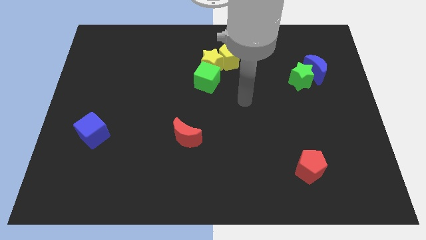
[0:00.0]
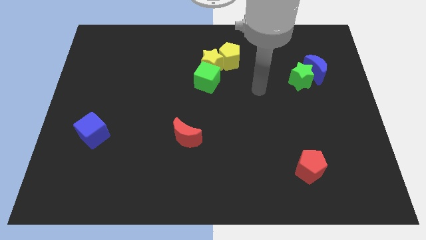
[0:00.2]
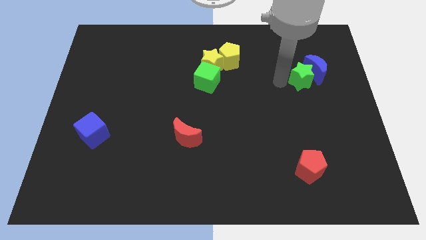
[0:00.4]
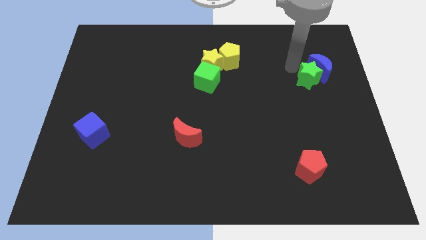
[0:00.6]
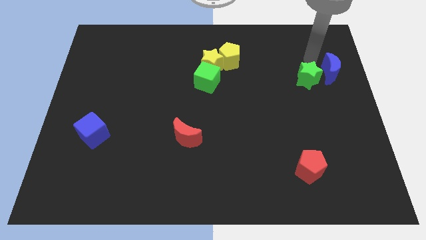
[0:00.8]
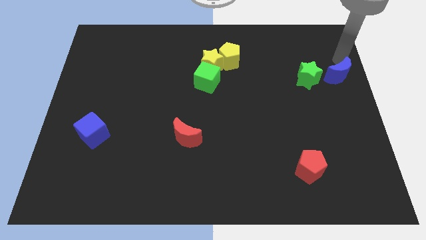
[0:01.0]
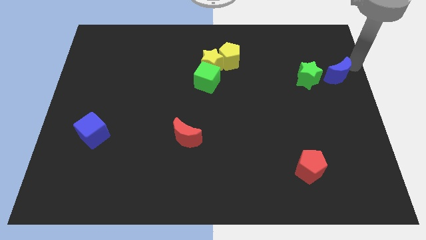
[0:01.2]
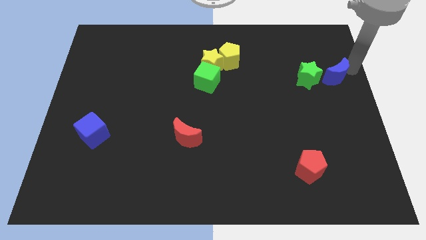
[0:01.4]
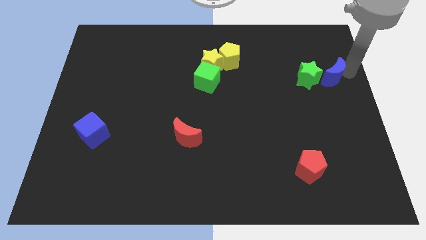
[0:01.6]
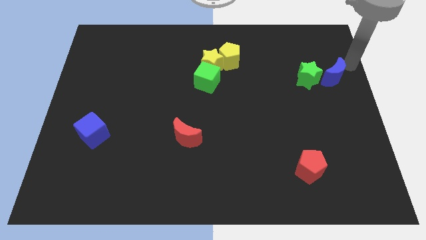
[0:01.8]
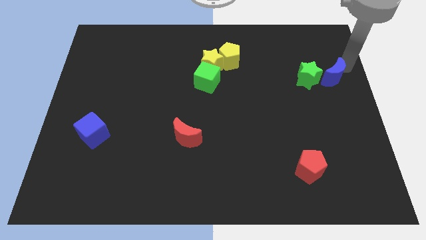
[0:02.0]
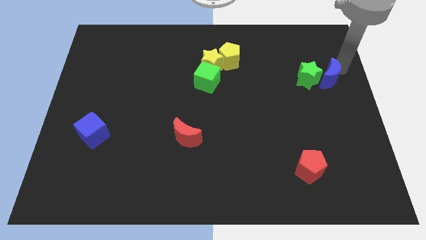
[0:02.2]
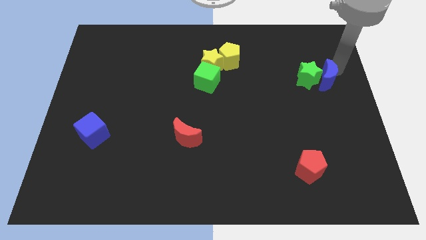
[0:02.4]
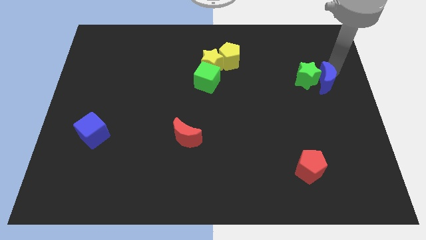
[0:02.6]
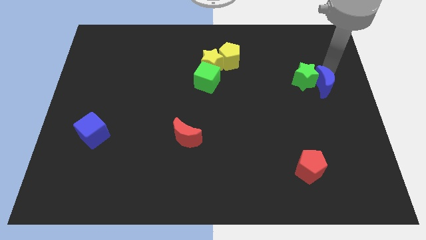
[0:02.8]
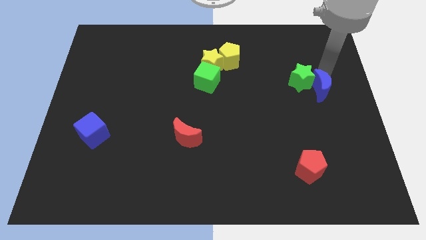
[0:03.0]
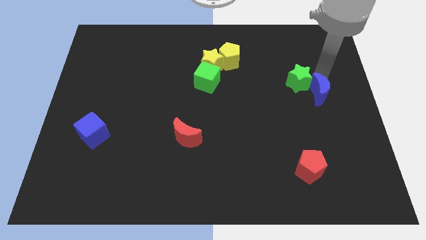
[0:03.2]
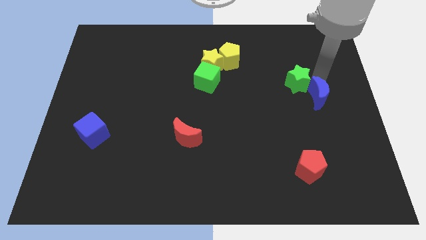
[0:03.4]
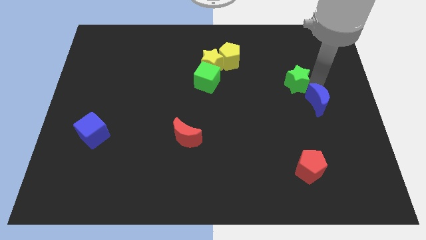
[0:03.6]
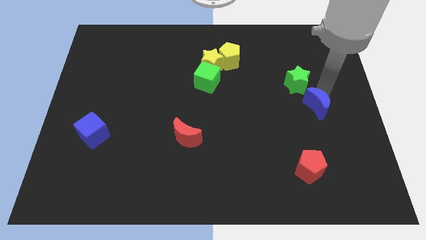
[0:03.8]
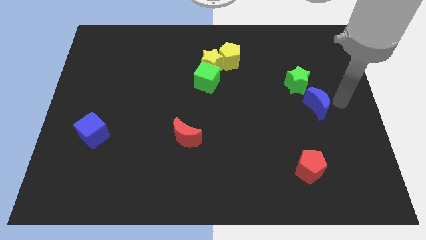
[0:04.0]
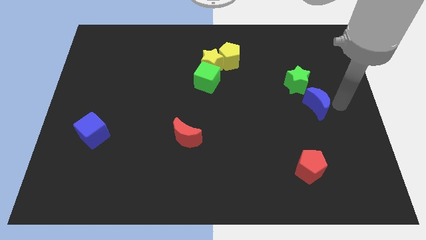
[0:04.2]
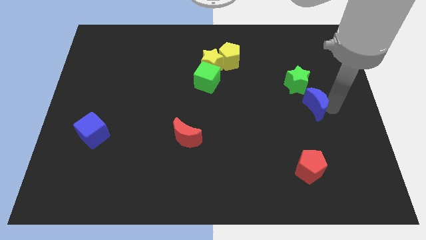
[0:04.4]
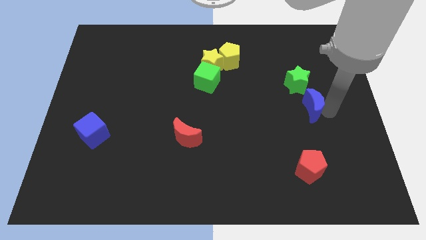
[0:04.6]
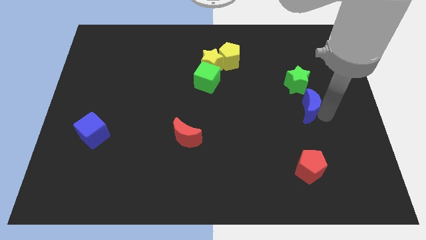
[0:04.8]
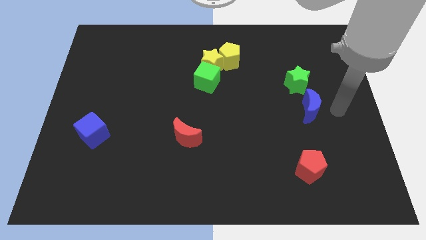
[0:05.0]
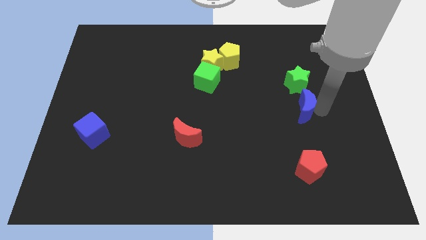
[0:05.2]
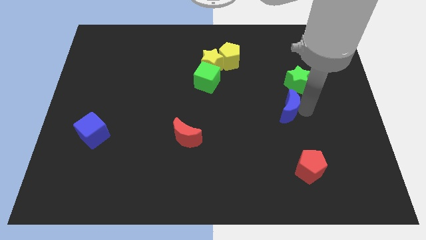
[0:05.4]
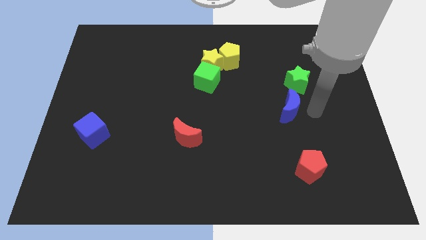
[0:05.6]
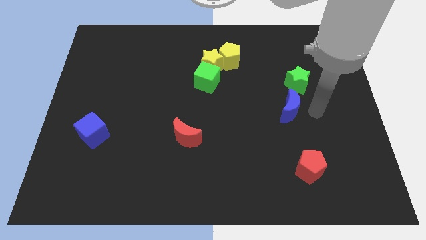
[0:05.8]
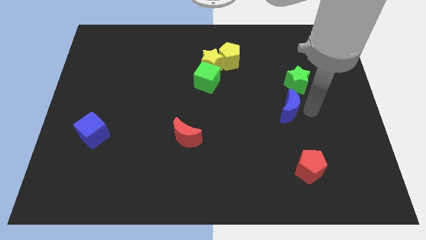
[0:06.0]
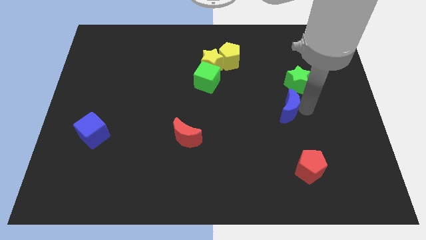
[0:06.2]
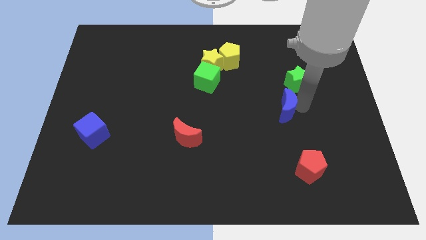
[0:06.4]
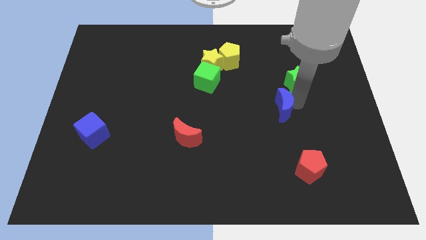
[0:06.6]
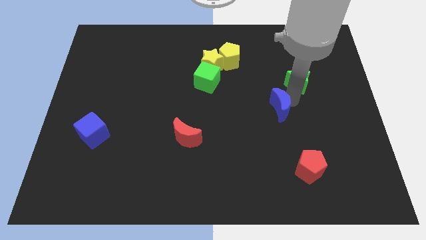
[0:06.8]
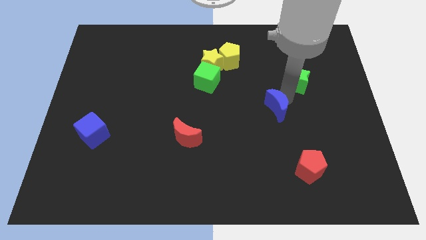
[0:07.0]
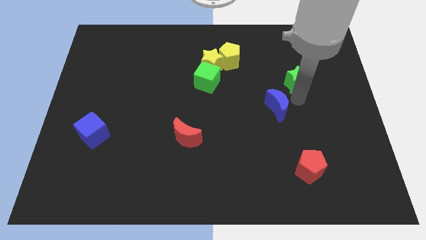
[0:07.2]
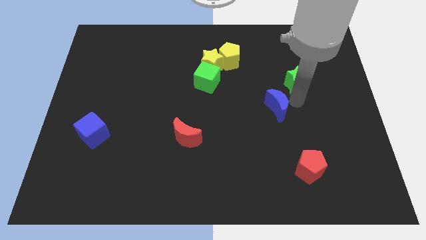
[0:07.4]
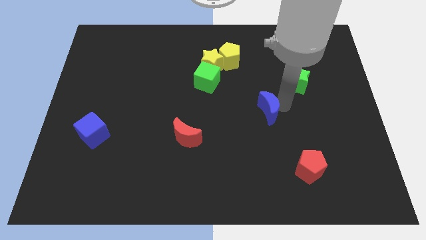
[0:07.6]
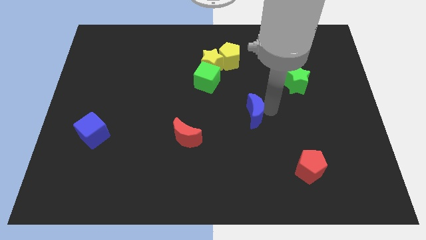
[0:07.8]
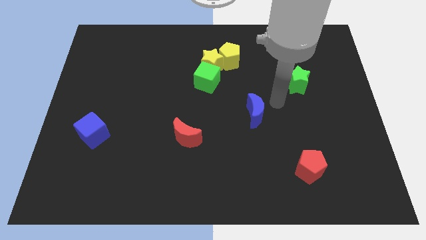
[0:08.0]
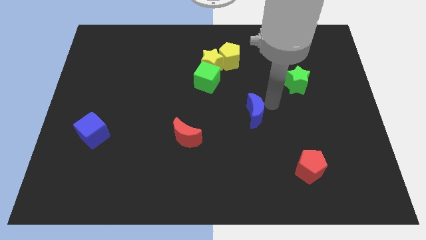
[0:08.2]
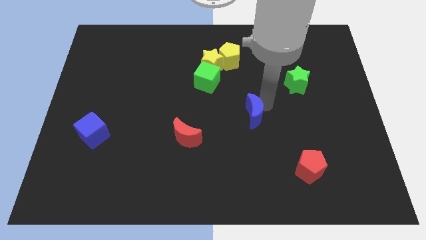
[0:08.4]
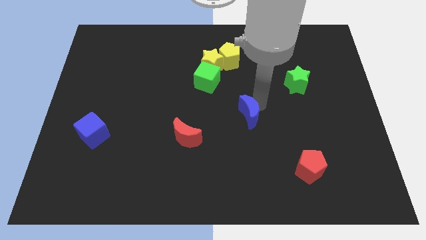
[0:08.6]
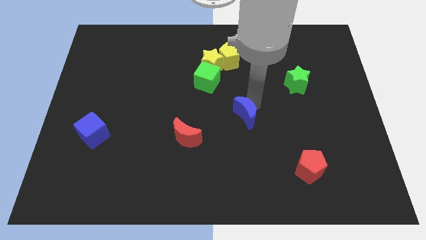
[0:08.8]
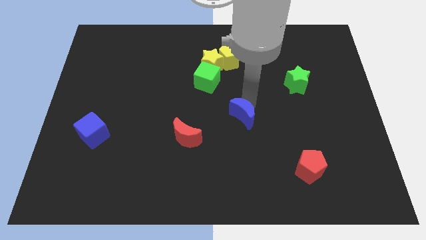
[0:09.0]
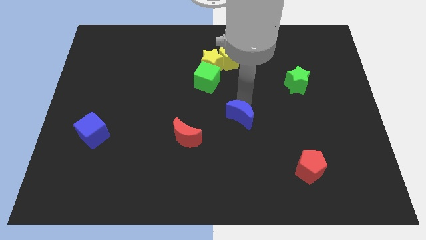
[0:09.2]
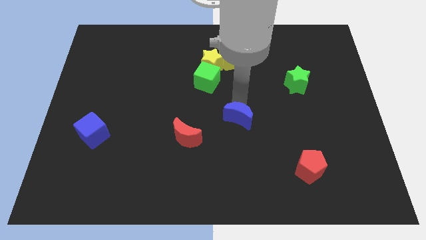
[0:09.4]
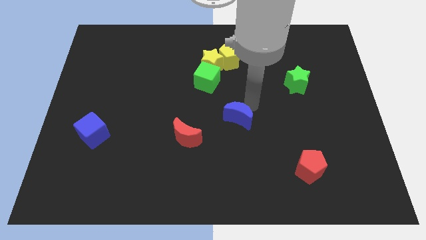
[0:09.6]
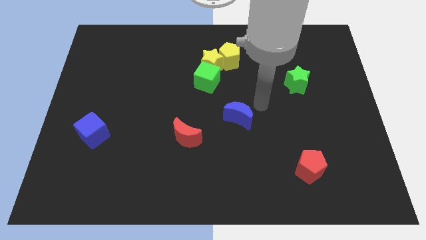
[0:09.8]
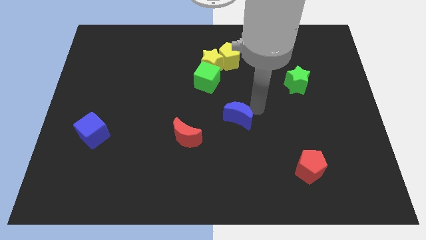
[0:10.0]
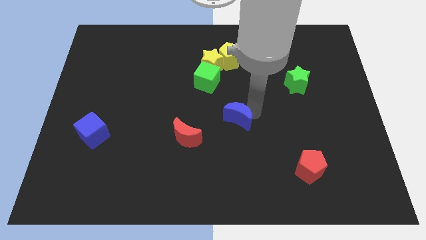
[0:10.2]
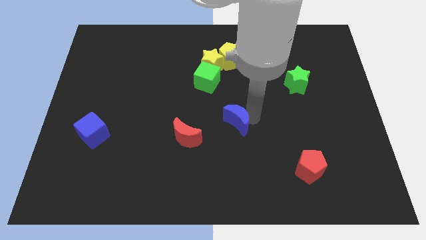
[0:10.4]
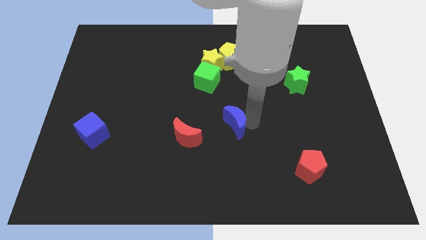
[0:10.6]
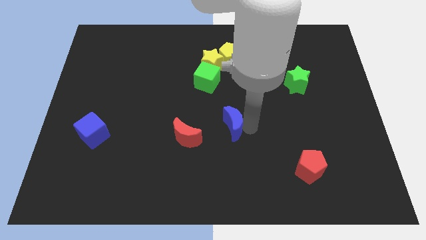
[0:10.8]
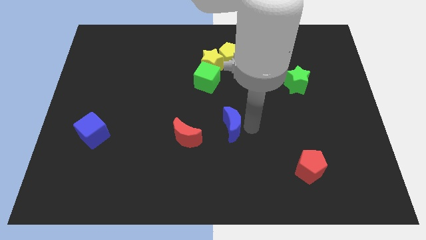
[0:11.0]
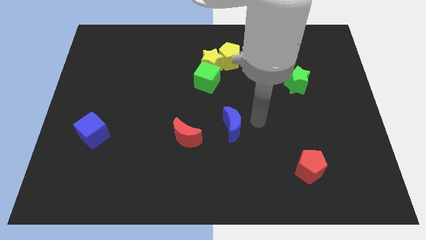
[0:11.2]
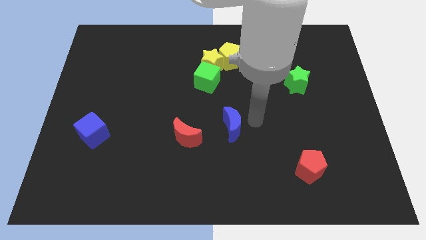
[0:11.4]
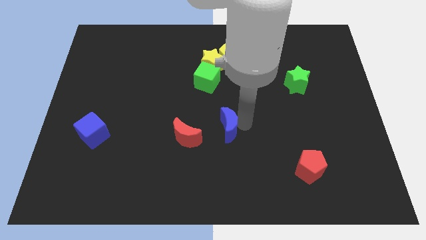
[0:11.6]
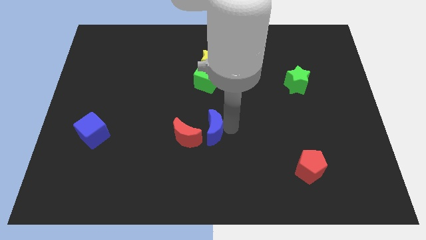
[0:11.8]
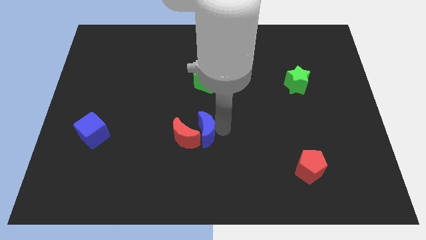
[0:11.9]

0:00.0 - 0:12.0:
move the blue moon to the red moon

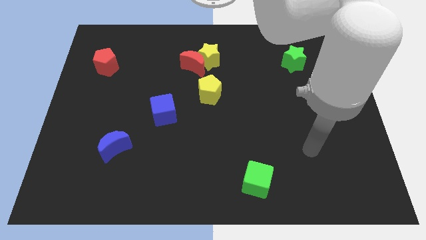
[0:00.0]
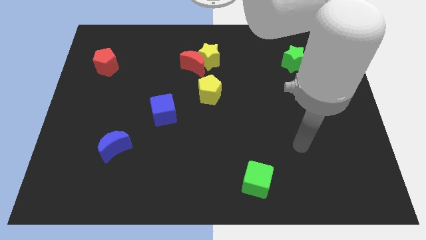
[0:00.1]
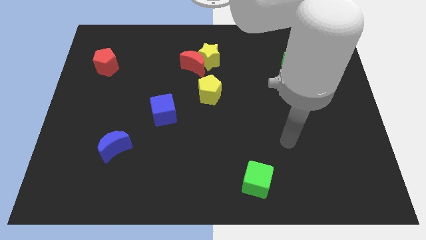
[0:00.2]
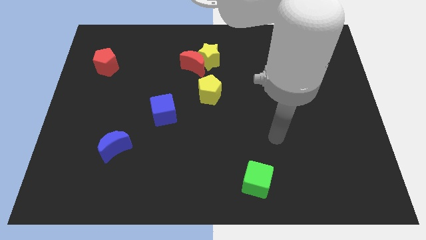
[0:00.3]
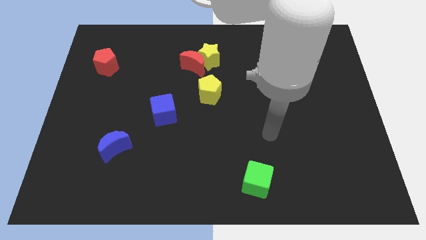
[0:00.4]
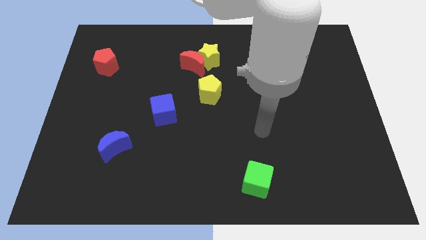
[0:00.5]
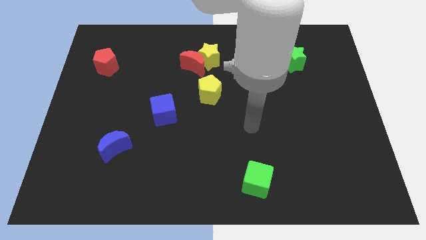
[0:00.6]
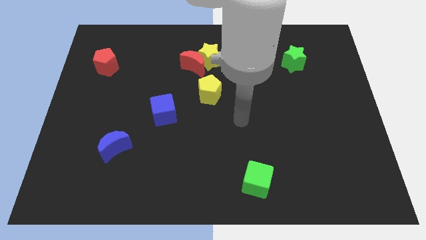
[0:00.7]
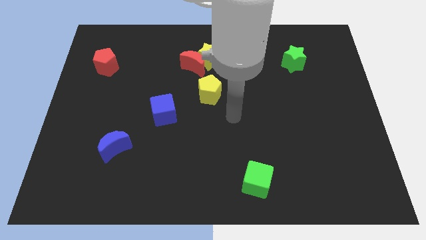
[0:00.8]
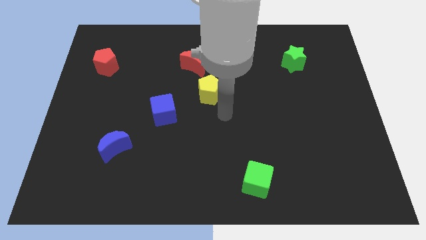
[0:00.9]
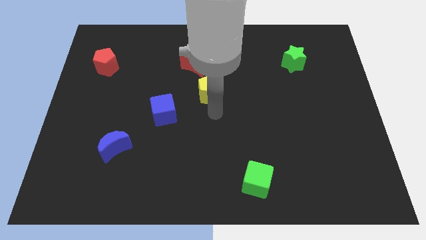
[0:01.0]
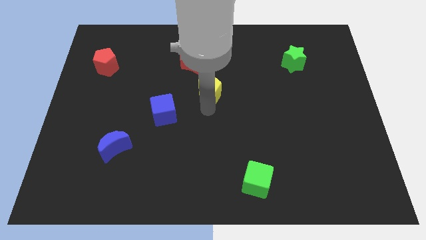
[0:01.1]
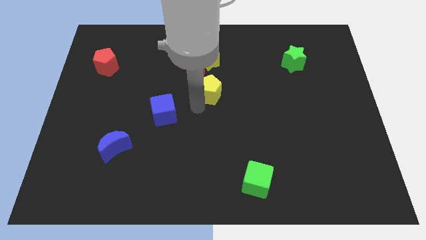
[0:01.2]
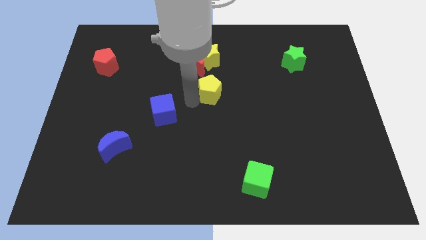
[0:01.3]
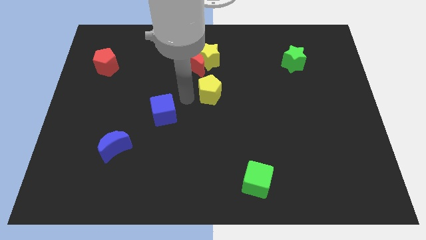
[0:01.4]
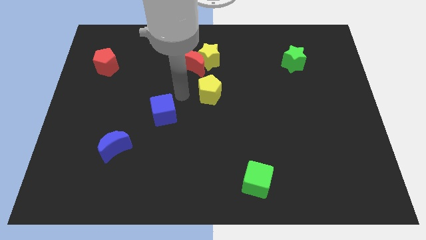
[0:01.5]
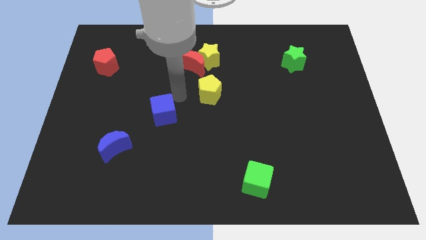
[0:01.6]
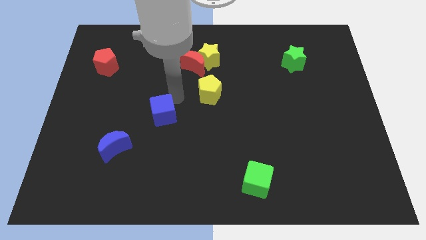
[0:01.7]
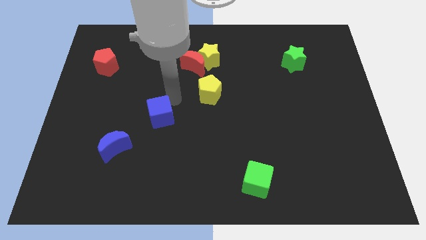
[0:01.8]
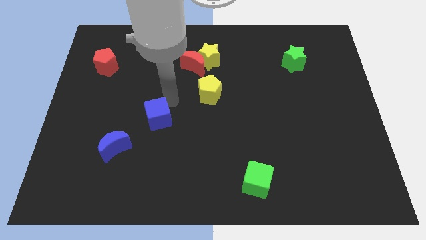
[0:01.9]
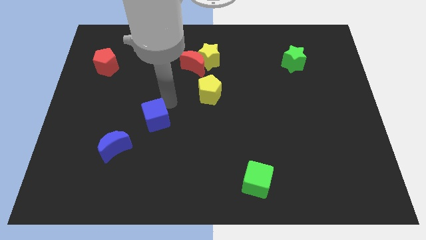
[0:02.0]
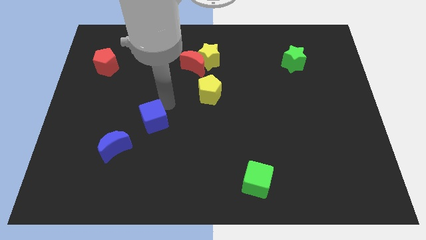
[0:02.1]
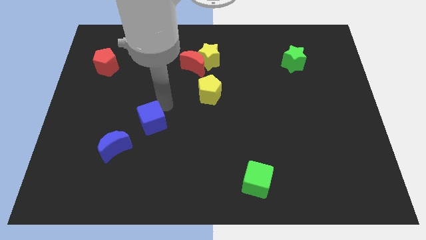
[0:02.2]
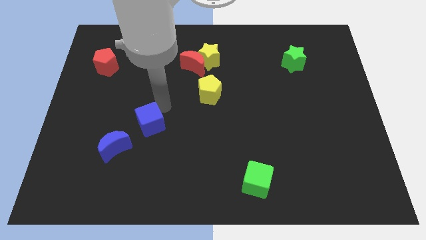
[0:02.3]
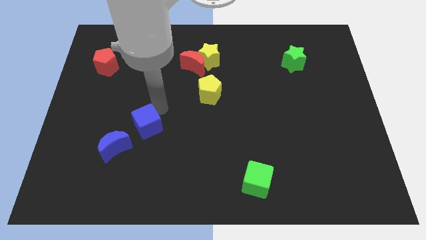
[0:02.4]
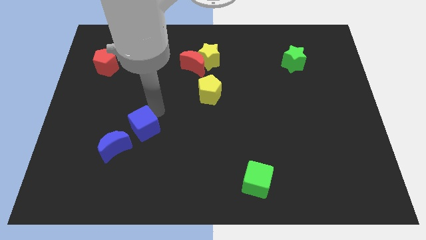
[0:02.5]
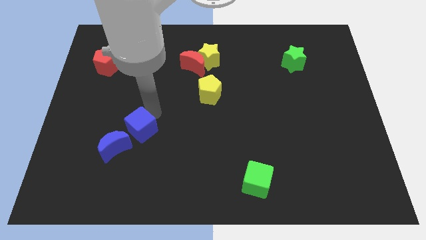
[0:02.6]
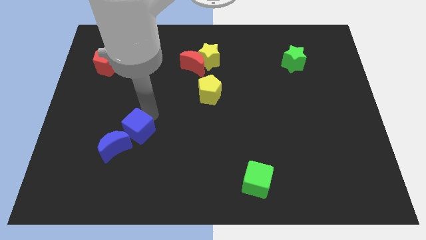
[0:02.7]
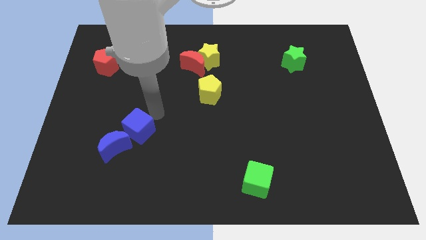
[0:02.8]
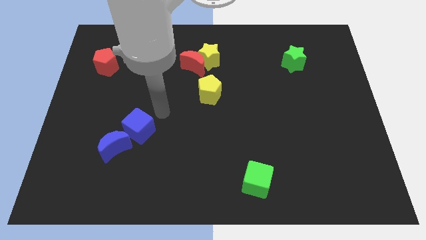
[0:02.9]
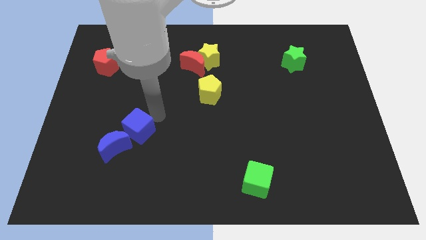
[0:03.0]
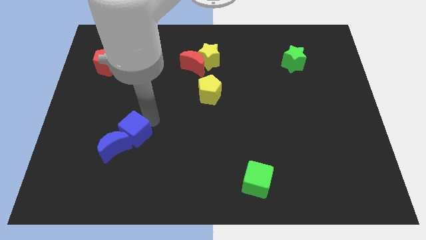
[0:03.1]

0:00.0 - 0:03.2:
slide the blue cube to the blue moon
